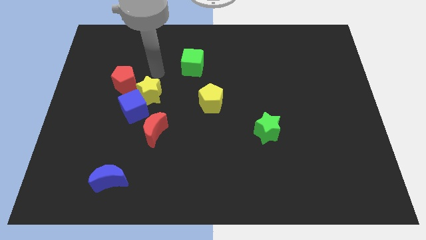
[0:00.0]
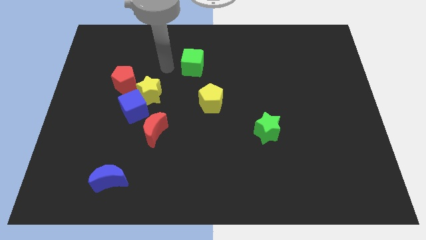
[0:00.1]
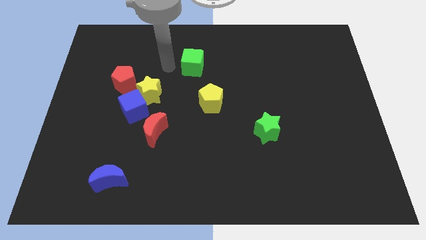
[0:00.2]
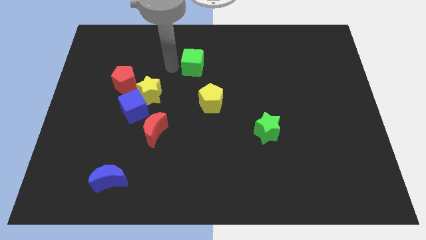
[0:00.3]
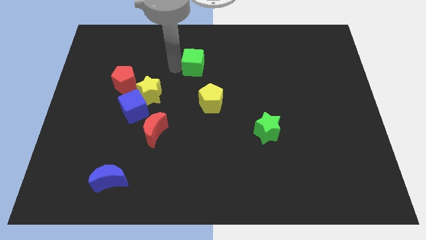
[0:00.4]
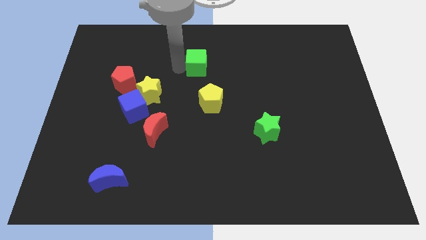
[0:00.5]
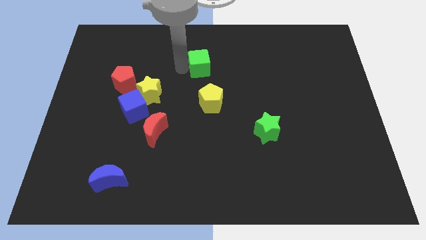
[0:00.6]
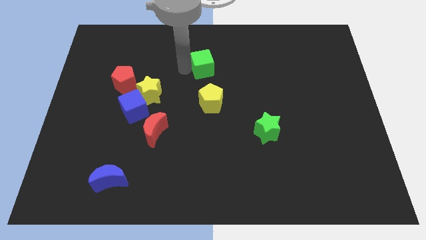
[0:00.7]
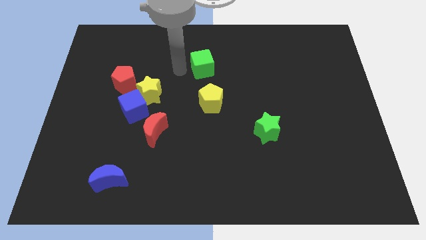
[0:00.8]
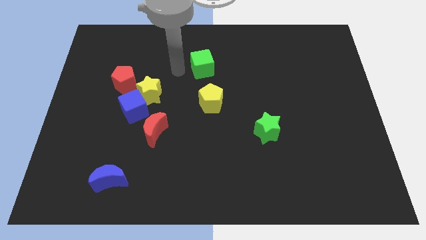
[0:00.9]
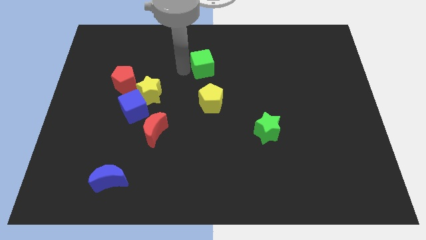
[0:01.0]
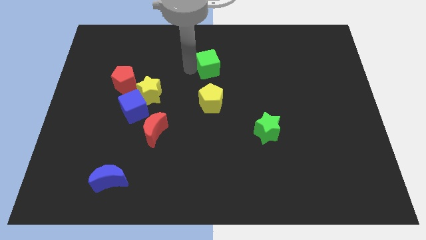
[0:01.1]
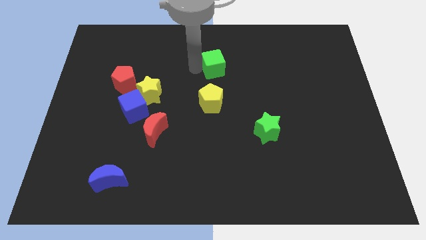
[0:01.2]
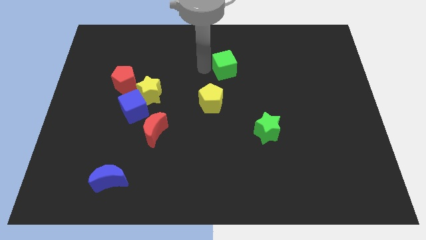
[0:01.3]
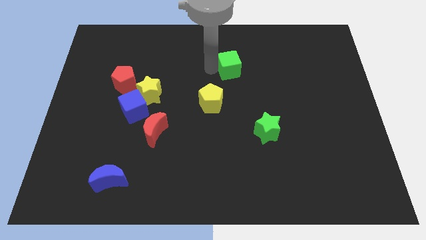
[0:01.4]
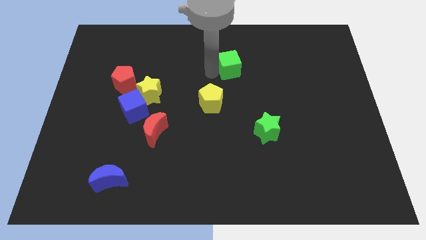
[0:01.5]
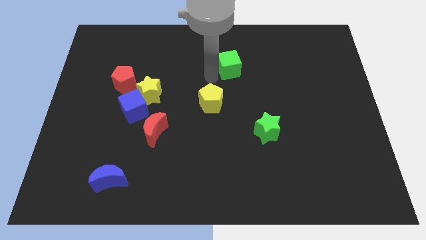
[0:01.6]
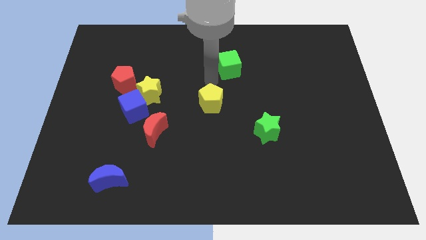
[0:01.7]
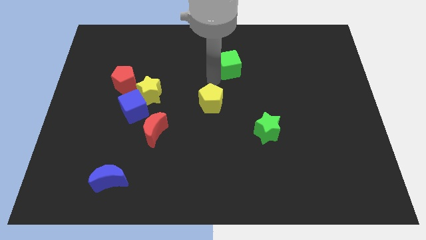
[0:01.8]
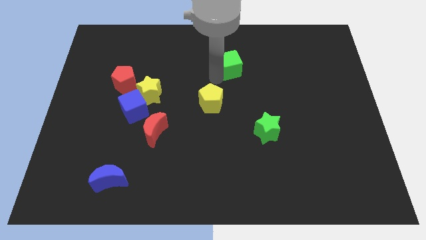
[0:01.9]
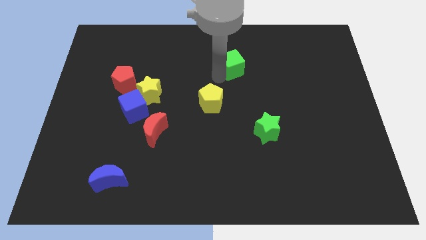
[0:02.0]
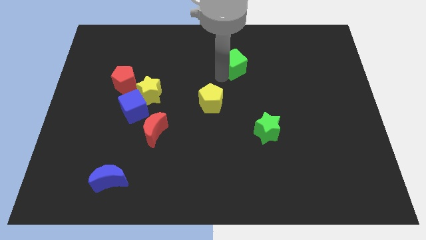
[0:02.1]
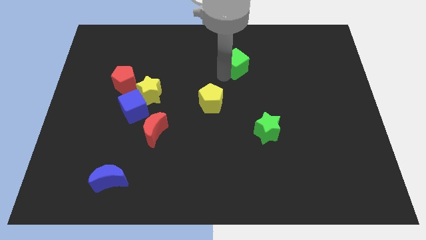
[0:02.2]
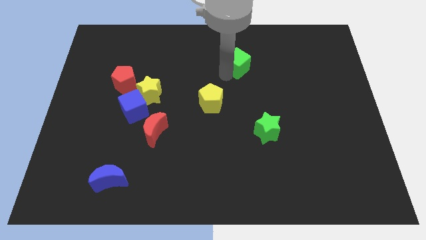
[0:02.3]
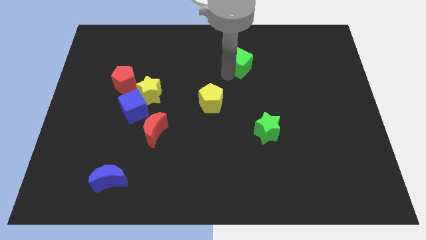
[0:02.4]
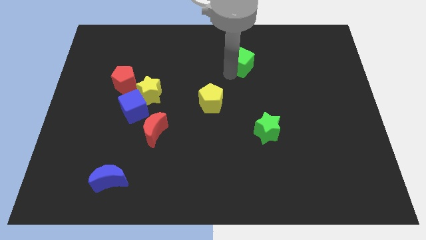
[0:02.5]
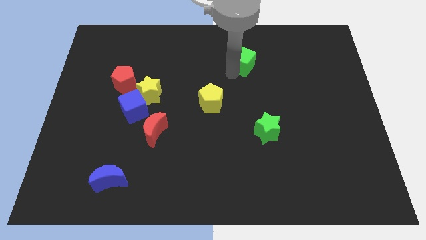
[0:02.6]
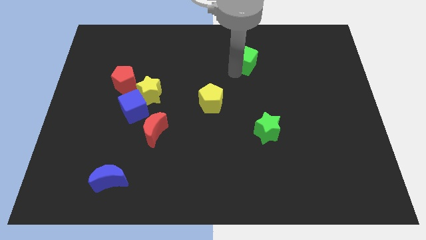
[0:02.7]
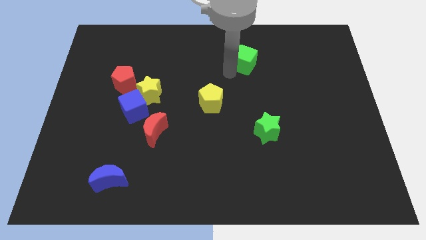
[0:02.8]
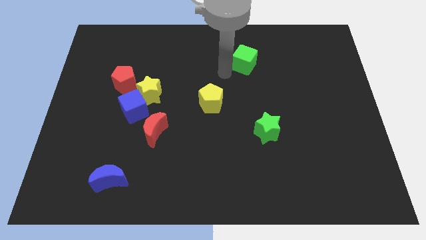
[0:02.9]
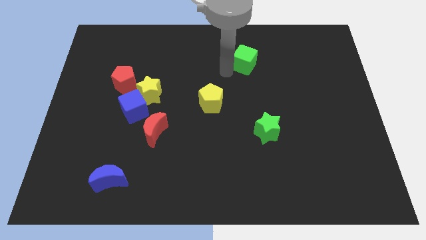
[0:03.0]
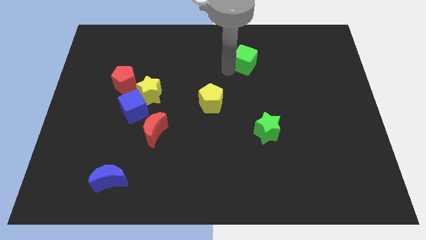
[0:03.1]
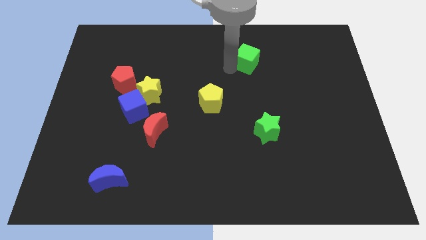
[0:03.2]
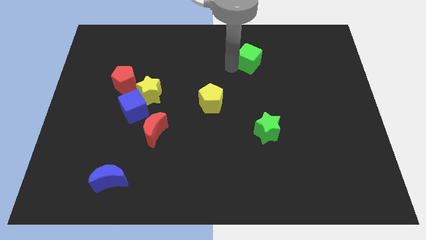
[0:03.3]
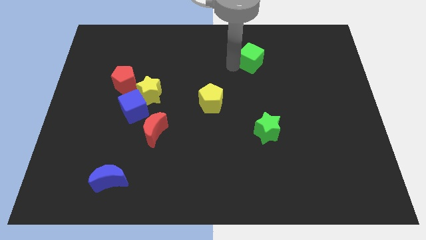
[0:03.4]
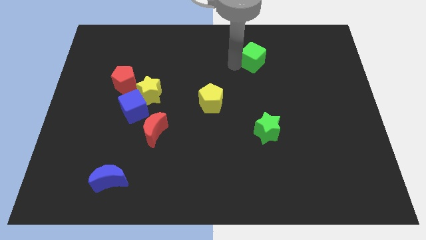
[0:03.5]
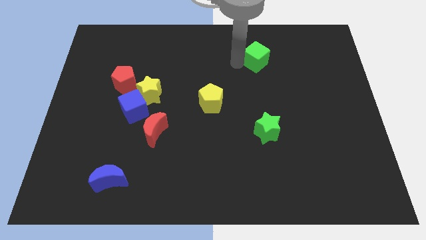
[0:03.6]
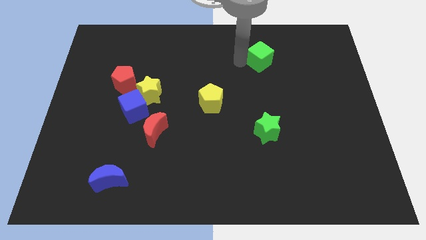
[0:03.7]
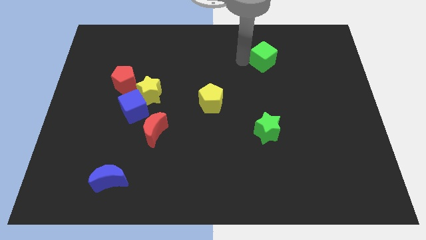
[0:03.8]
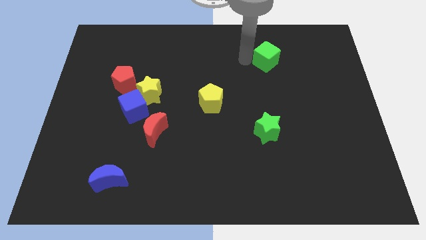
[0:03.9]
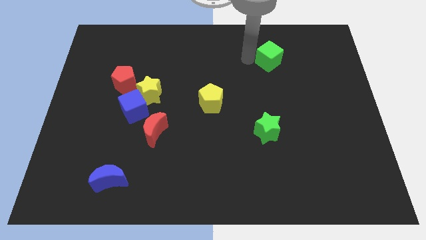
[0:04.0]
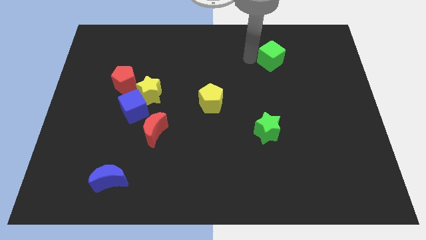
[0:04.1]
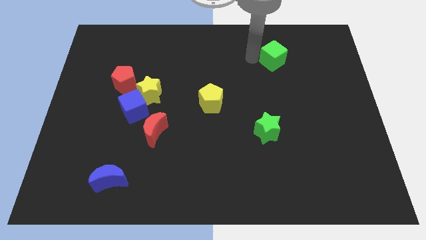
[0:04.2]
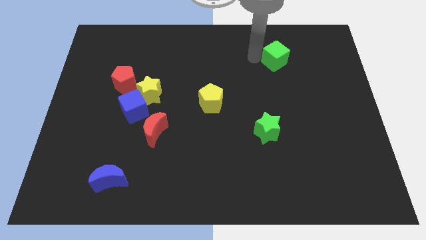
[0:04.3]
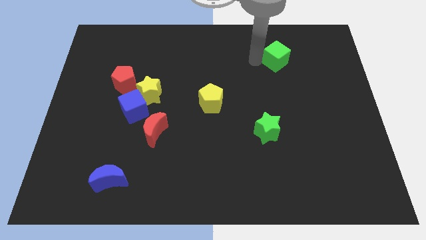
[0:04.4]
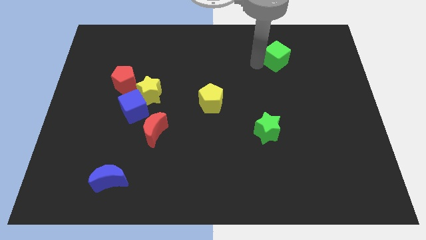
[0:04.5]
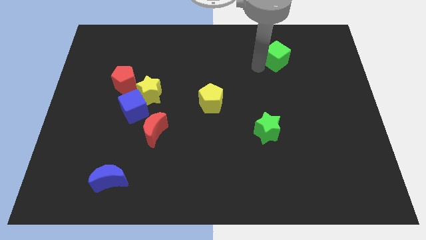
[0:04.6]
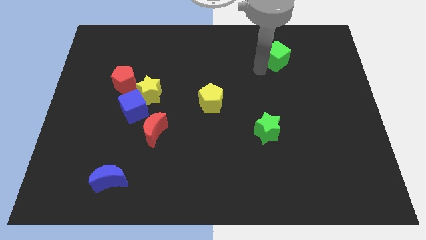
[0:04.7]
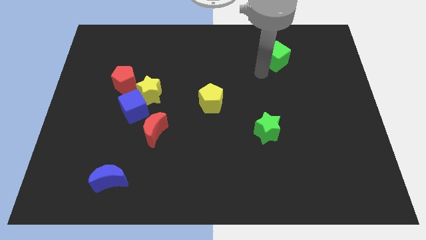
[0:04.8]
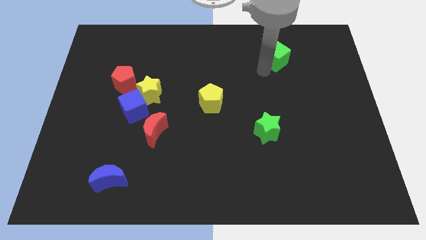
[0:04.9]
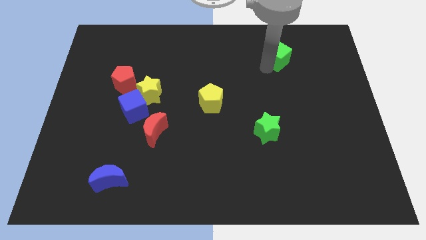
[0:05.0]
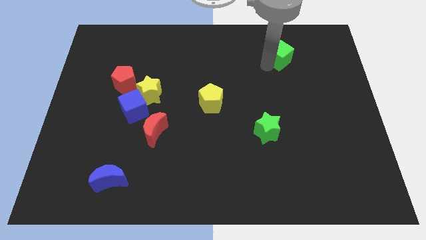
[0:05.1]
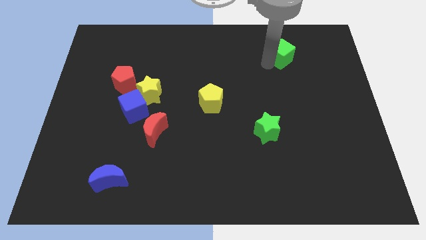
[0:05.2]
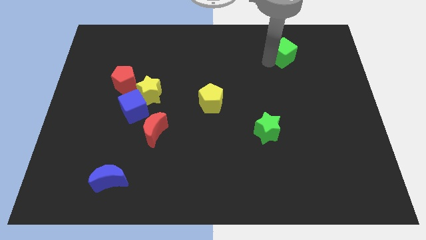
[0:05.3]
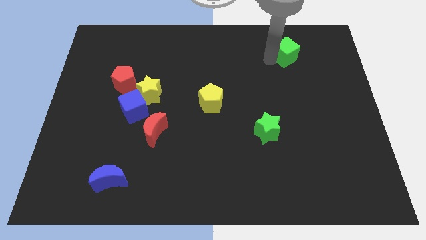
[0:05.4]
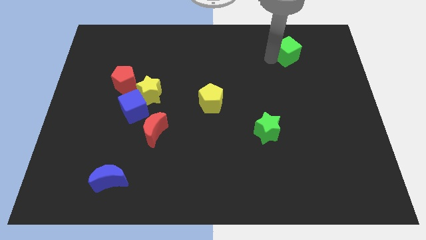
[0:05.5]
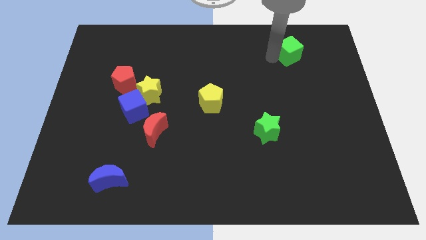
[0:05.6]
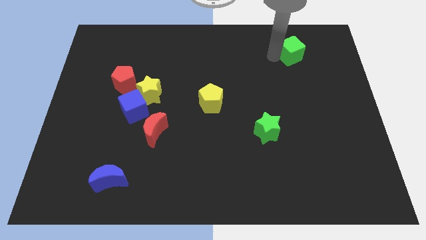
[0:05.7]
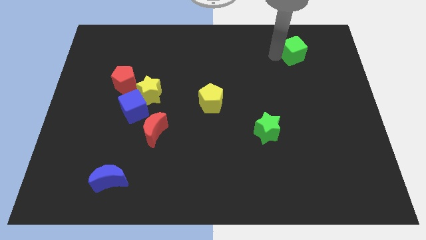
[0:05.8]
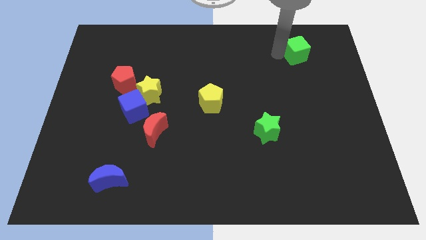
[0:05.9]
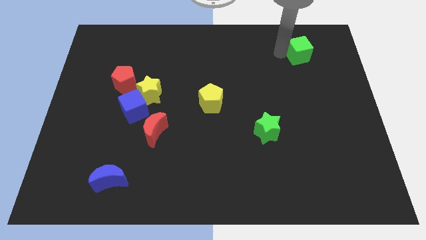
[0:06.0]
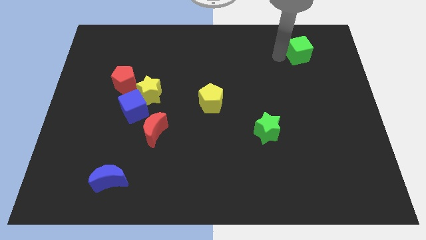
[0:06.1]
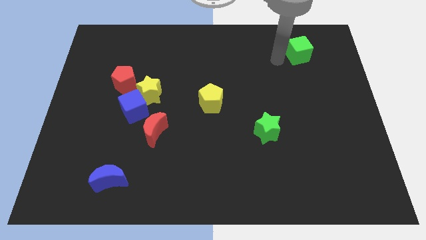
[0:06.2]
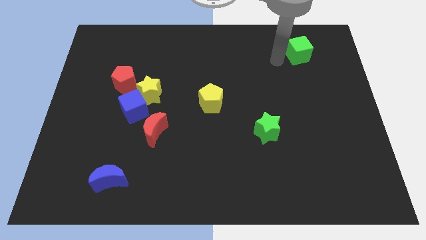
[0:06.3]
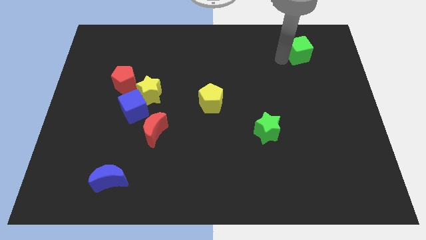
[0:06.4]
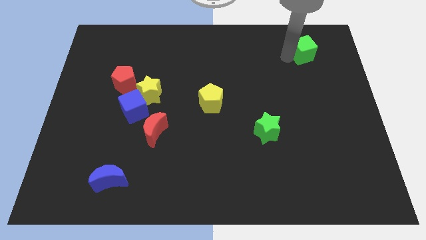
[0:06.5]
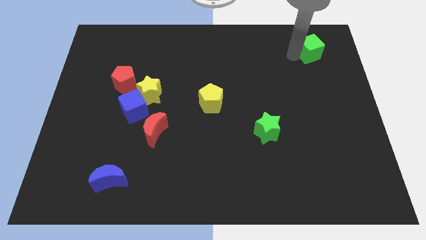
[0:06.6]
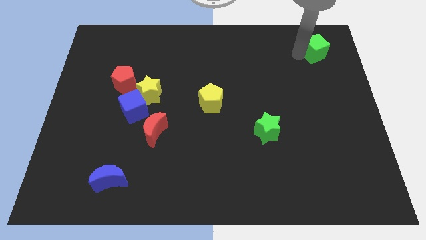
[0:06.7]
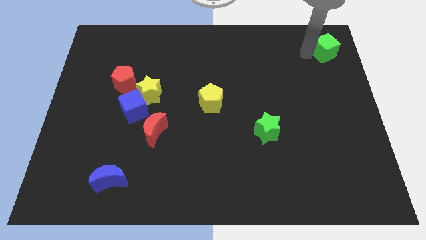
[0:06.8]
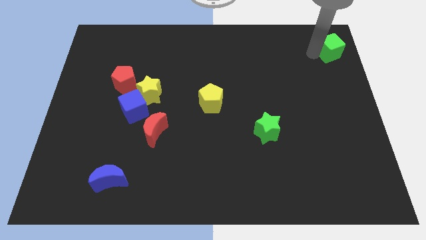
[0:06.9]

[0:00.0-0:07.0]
put the green cube to the upper right corner
